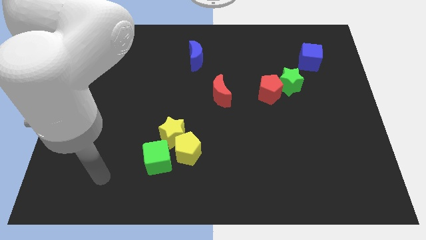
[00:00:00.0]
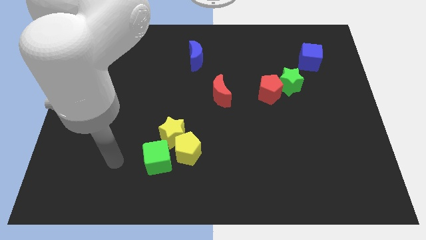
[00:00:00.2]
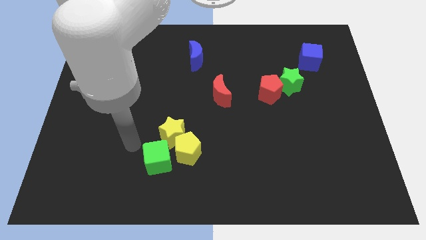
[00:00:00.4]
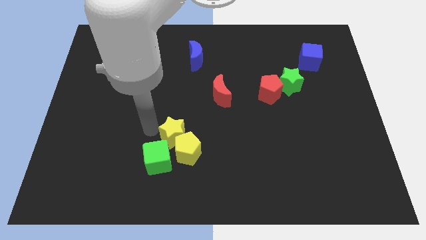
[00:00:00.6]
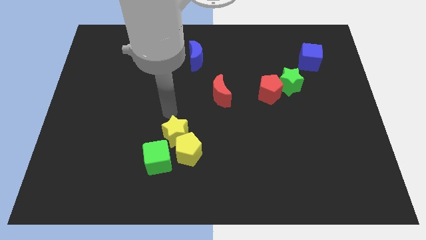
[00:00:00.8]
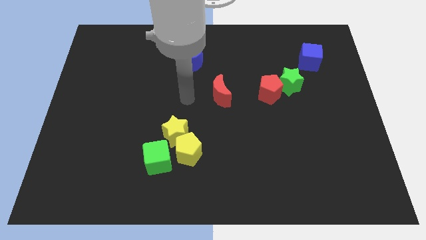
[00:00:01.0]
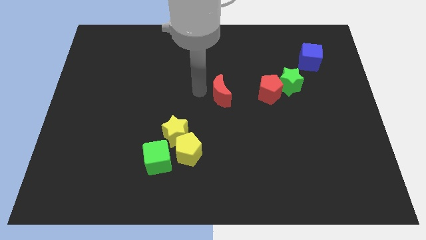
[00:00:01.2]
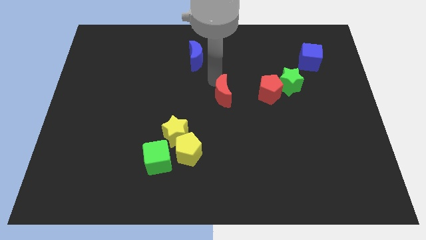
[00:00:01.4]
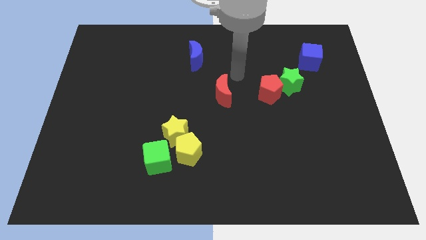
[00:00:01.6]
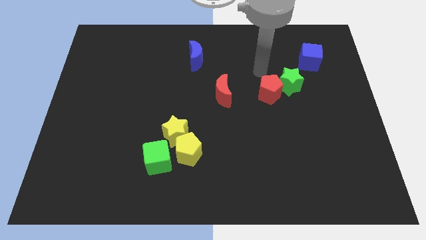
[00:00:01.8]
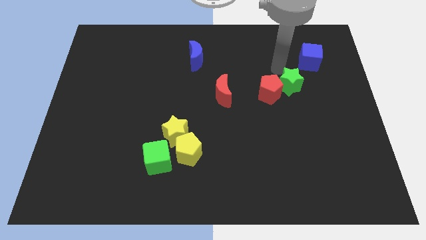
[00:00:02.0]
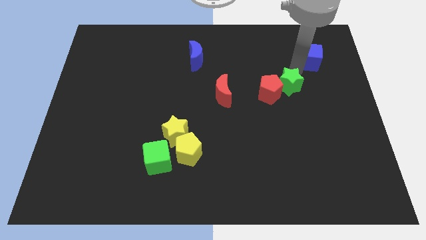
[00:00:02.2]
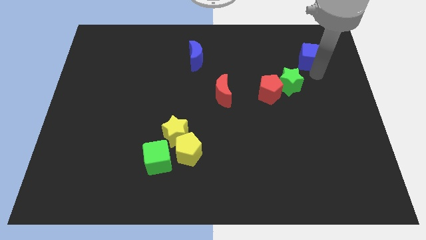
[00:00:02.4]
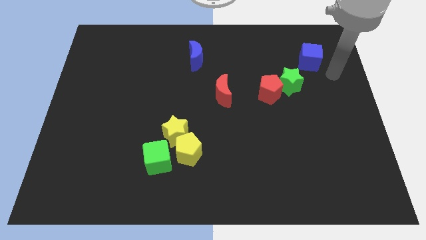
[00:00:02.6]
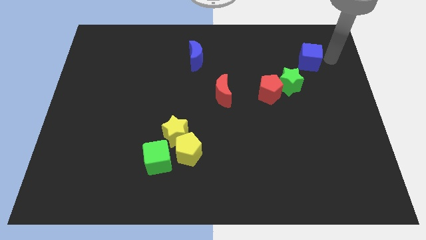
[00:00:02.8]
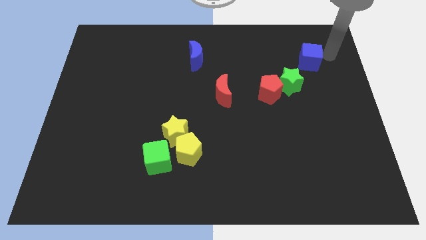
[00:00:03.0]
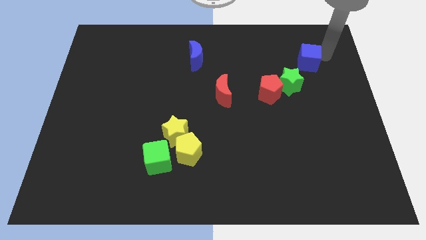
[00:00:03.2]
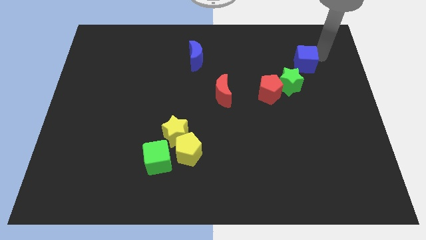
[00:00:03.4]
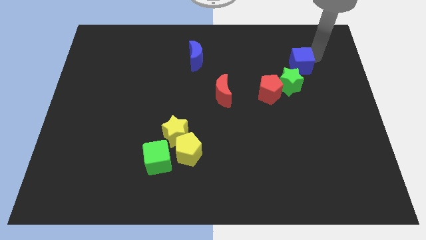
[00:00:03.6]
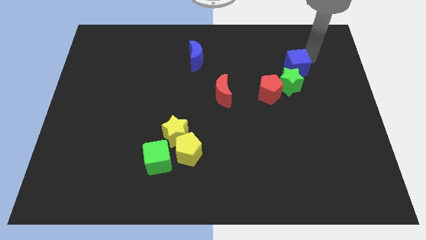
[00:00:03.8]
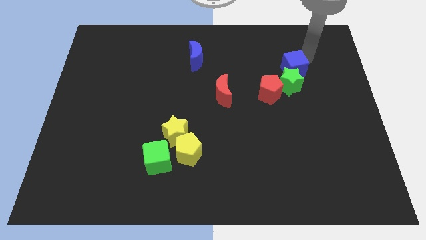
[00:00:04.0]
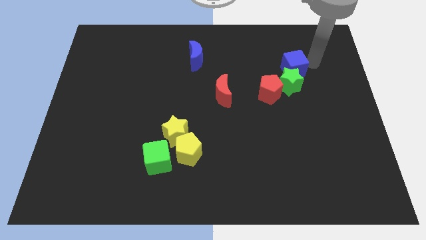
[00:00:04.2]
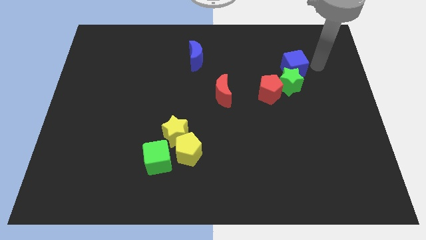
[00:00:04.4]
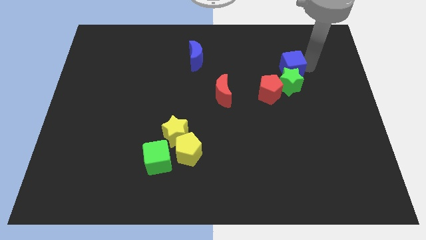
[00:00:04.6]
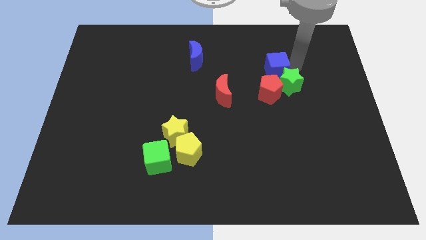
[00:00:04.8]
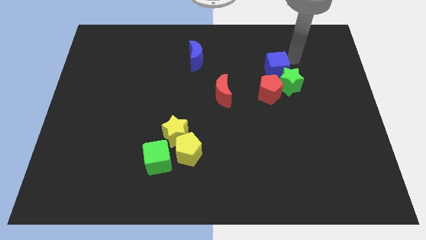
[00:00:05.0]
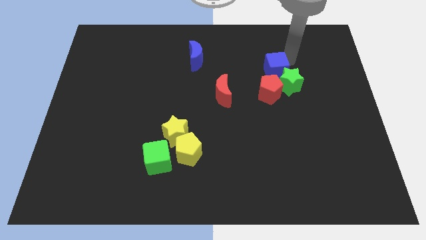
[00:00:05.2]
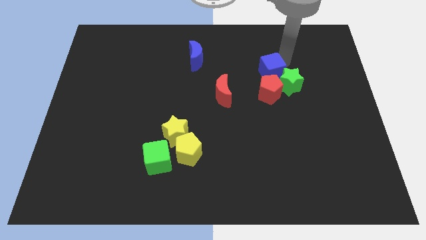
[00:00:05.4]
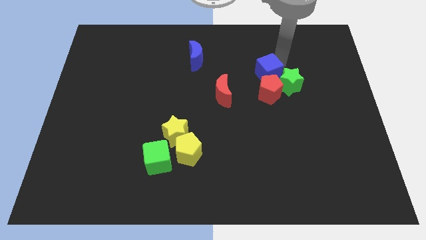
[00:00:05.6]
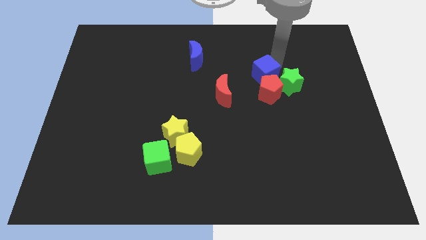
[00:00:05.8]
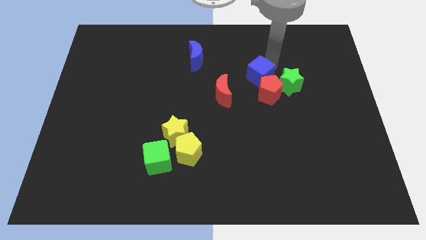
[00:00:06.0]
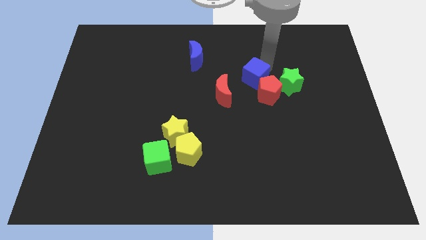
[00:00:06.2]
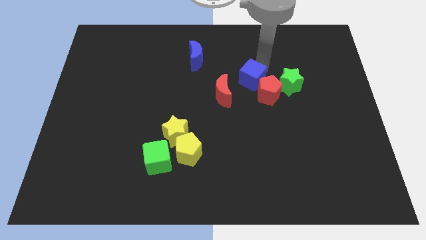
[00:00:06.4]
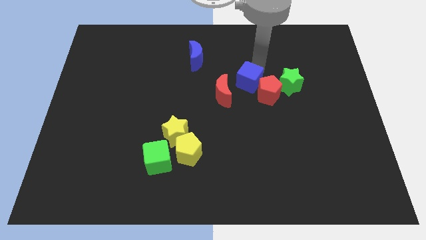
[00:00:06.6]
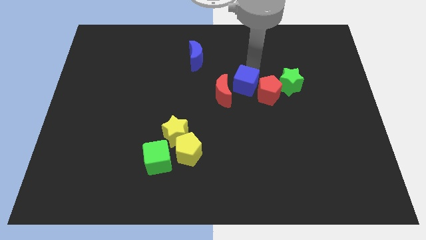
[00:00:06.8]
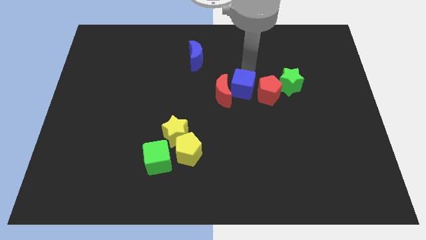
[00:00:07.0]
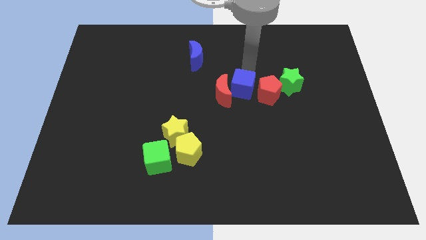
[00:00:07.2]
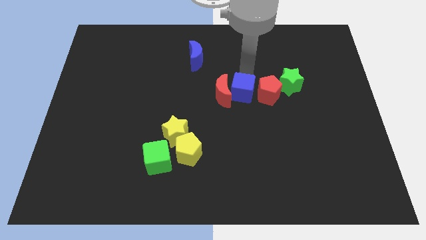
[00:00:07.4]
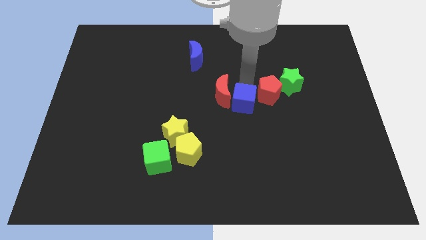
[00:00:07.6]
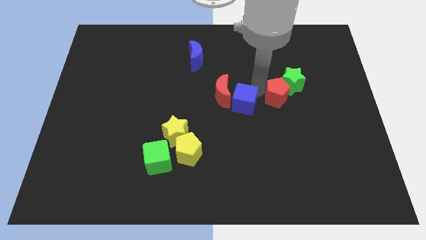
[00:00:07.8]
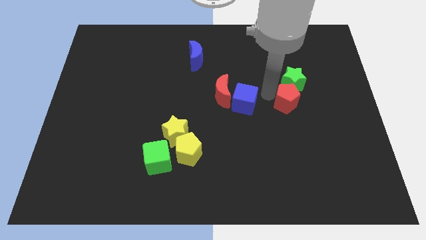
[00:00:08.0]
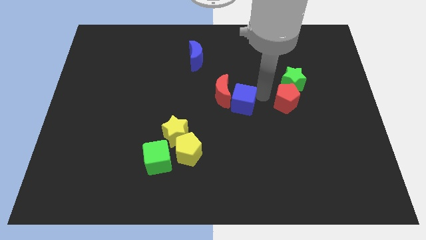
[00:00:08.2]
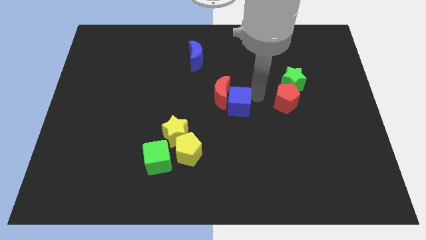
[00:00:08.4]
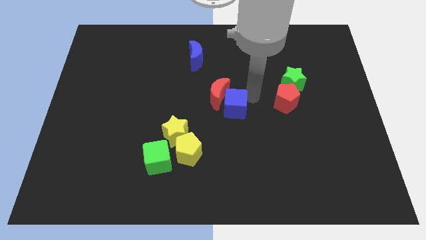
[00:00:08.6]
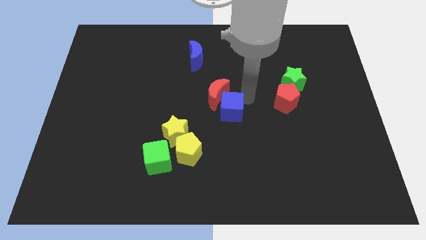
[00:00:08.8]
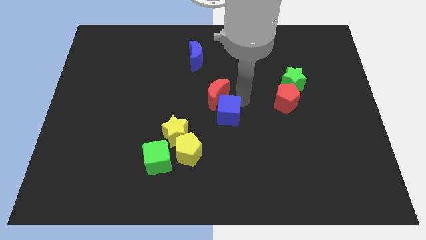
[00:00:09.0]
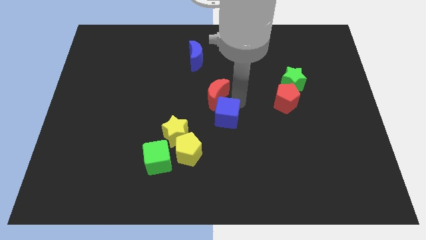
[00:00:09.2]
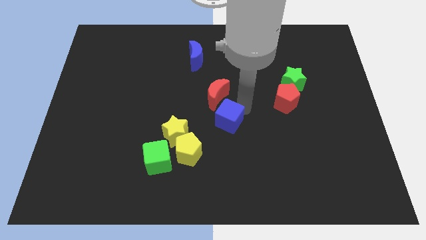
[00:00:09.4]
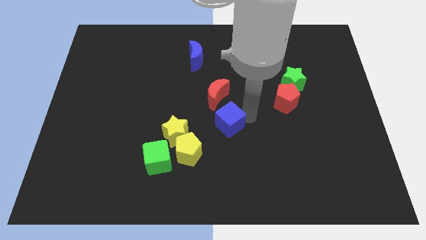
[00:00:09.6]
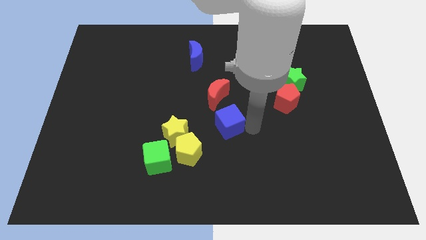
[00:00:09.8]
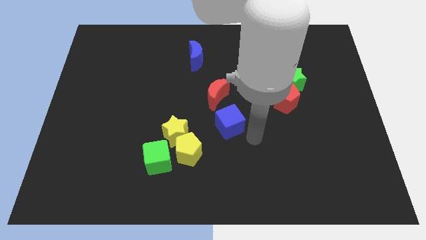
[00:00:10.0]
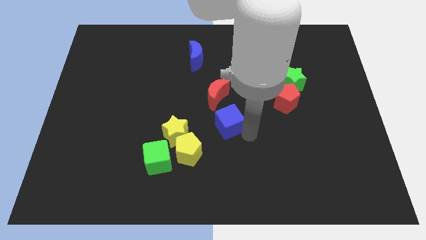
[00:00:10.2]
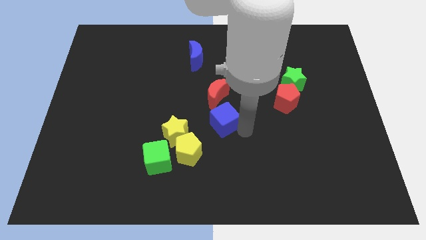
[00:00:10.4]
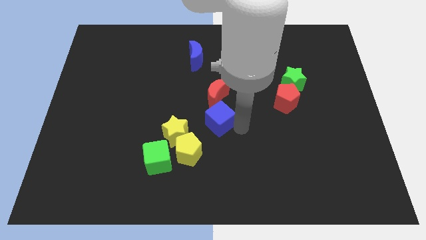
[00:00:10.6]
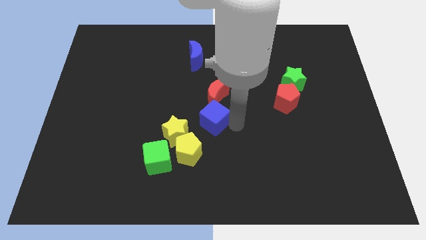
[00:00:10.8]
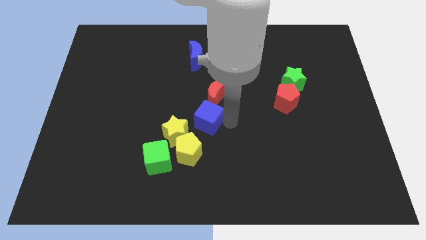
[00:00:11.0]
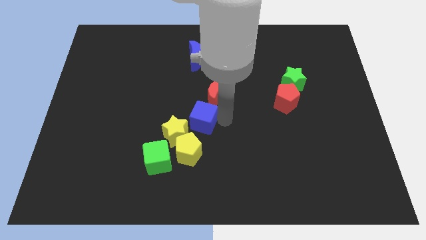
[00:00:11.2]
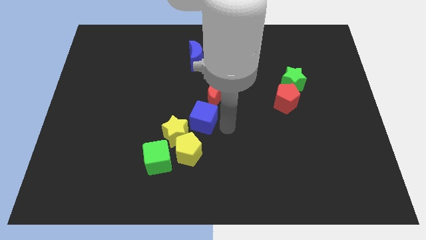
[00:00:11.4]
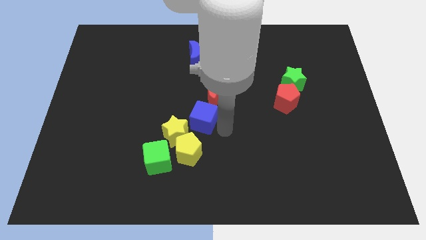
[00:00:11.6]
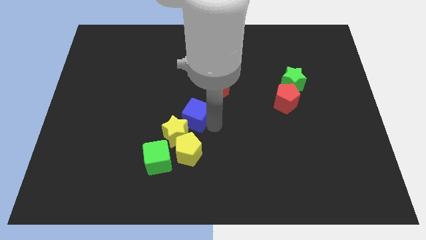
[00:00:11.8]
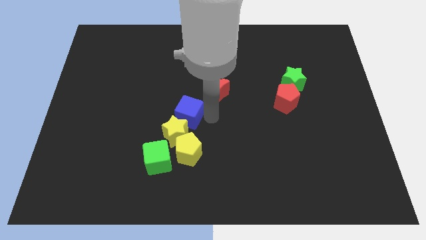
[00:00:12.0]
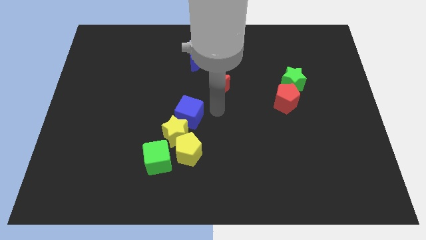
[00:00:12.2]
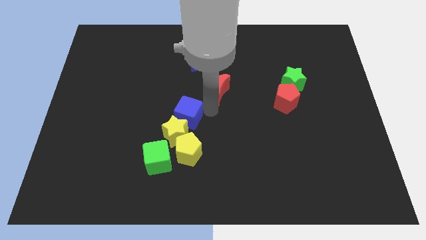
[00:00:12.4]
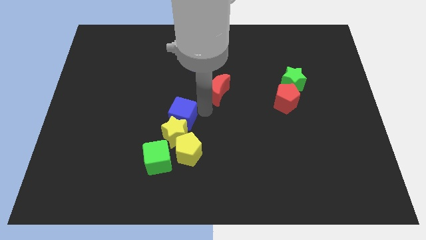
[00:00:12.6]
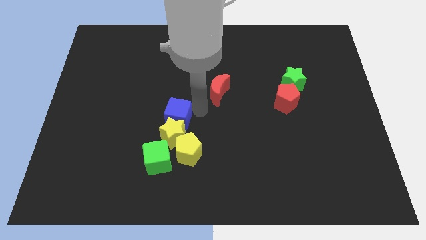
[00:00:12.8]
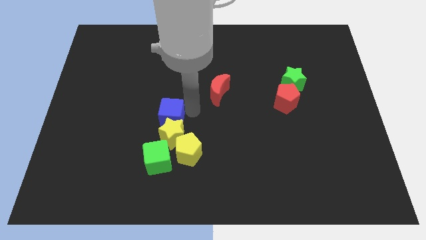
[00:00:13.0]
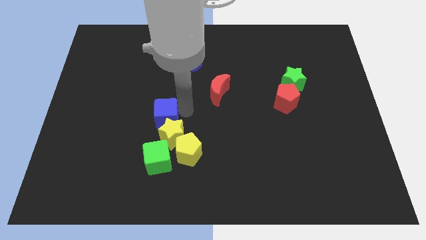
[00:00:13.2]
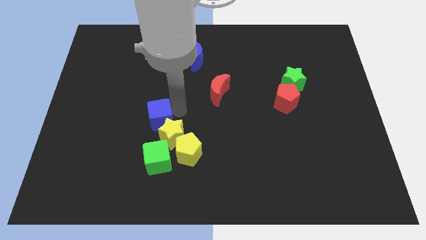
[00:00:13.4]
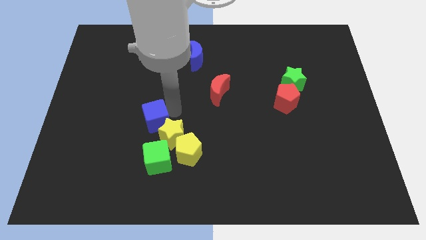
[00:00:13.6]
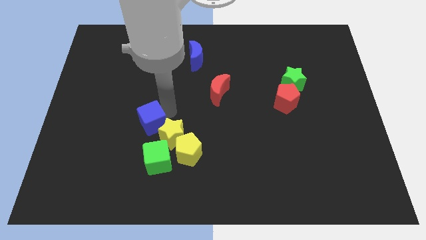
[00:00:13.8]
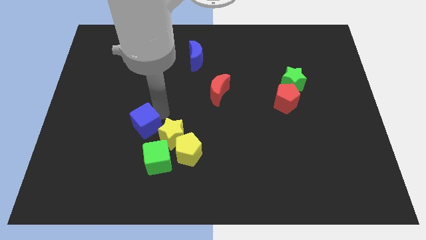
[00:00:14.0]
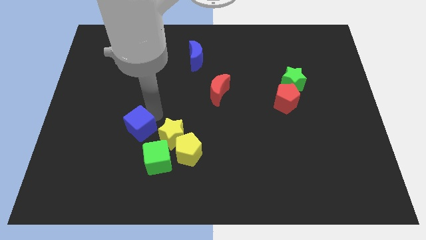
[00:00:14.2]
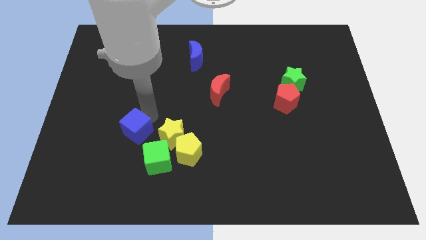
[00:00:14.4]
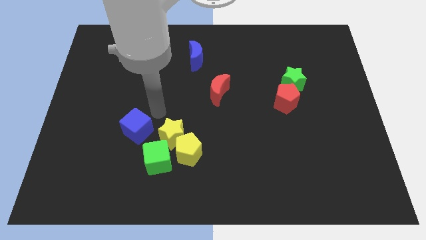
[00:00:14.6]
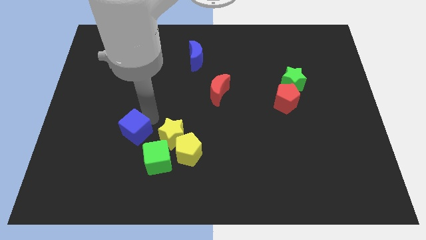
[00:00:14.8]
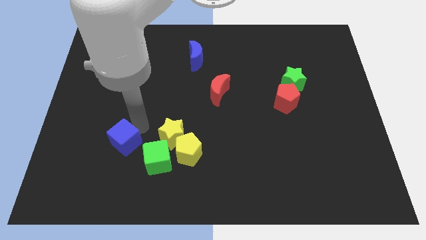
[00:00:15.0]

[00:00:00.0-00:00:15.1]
push the blue cube to the left side of the green cube
